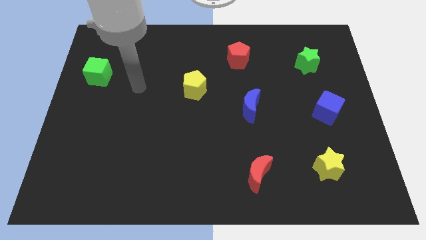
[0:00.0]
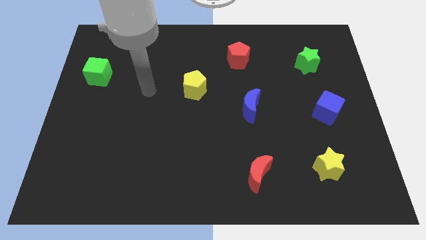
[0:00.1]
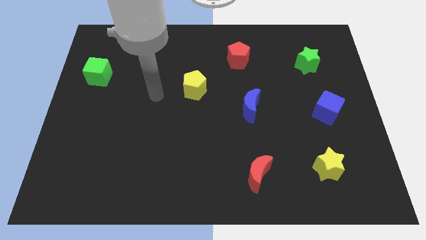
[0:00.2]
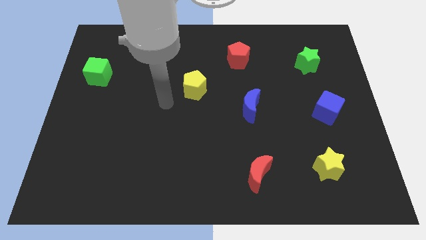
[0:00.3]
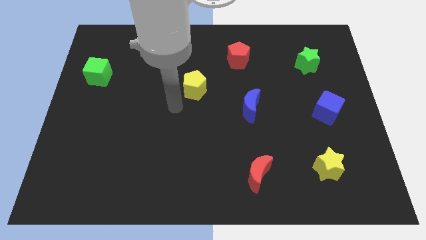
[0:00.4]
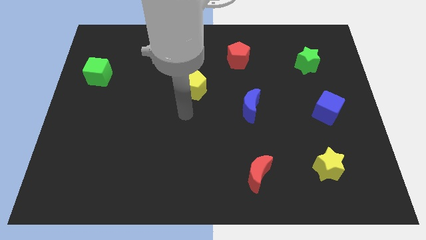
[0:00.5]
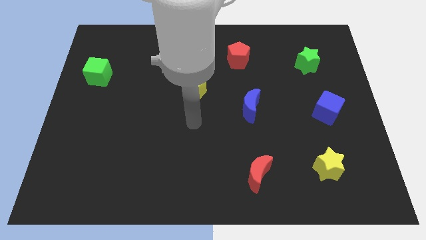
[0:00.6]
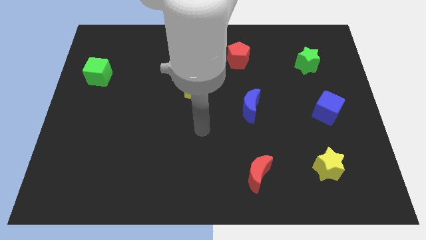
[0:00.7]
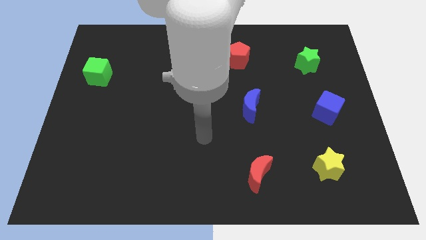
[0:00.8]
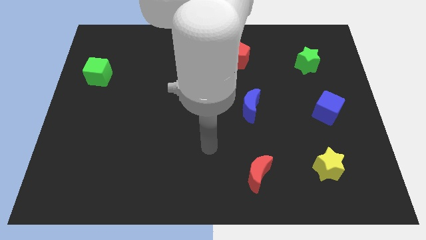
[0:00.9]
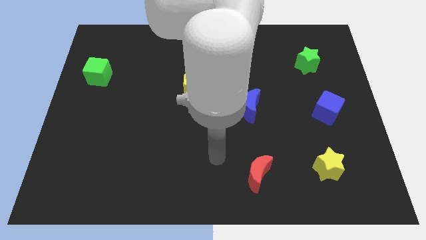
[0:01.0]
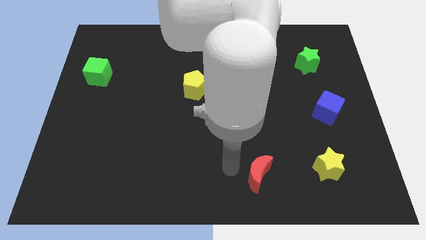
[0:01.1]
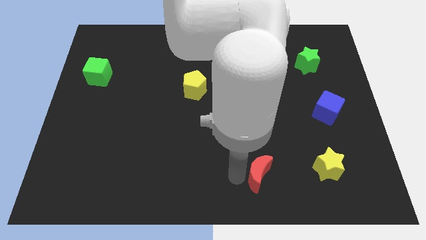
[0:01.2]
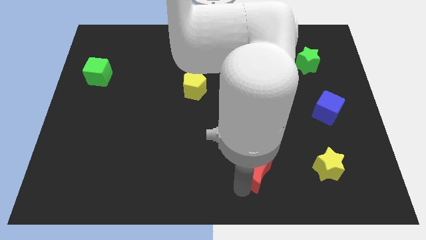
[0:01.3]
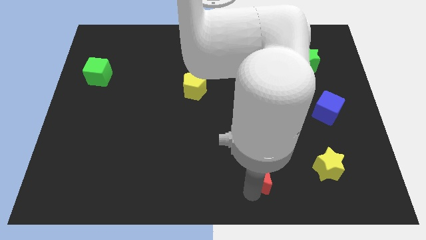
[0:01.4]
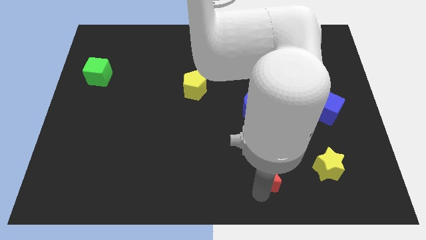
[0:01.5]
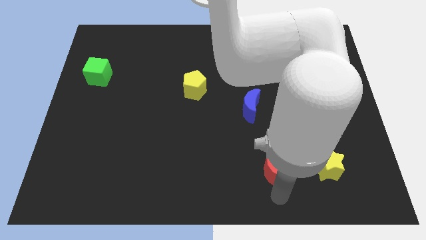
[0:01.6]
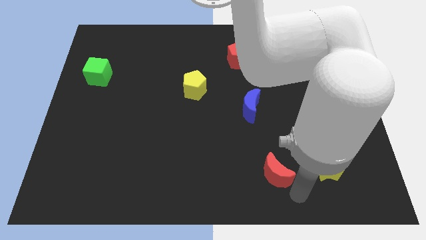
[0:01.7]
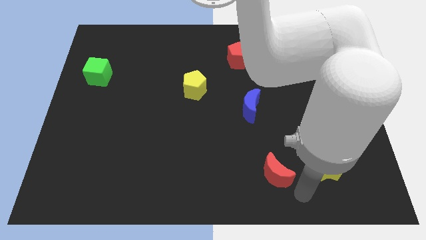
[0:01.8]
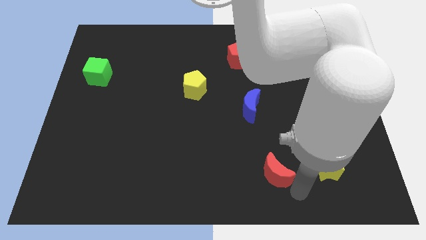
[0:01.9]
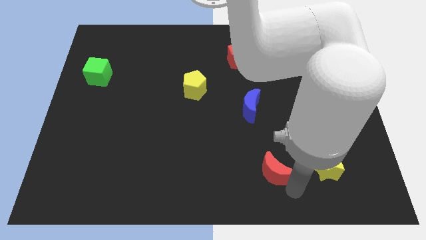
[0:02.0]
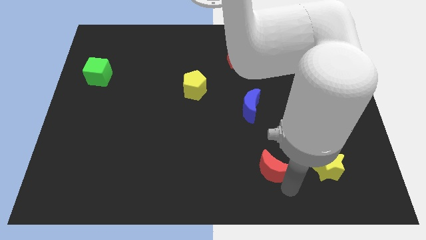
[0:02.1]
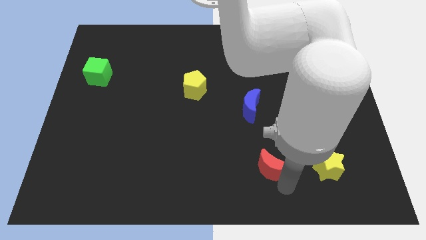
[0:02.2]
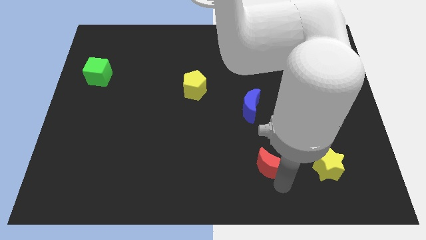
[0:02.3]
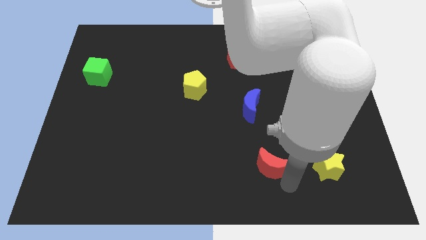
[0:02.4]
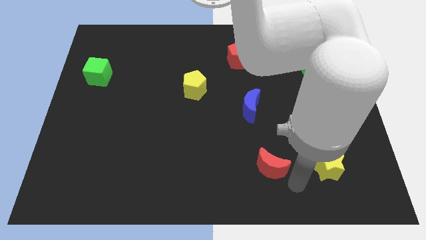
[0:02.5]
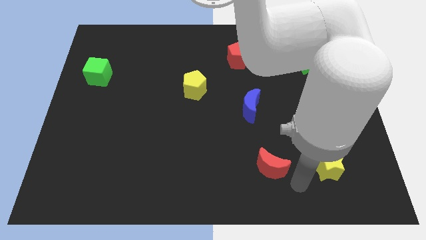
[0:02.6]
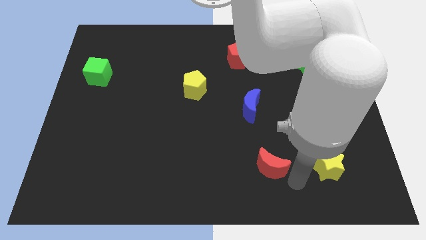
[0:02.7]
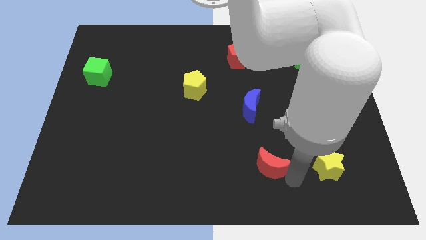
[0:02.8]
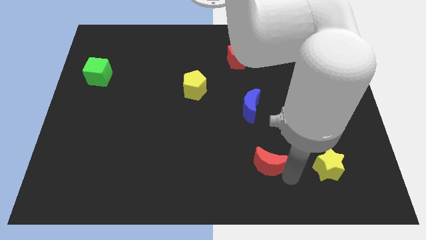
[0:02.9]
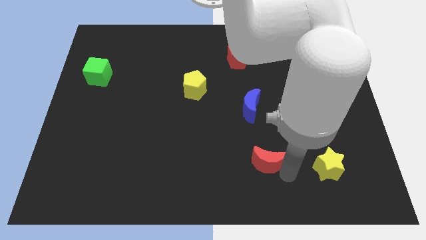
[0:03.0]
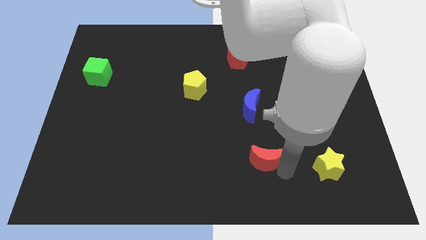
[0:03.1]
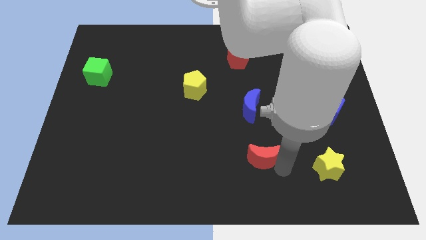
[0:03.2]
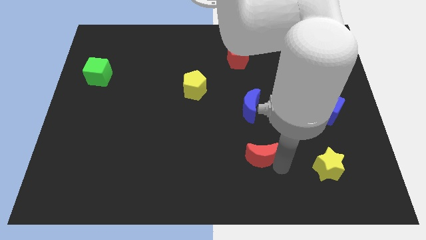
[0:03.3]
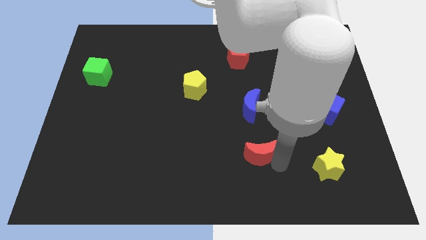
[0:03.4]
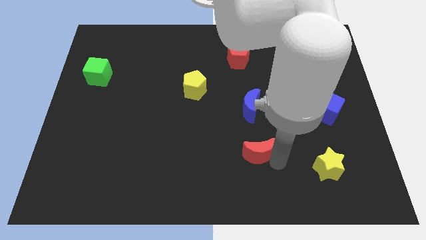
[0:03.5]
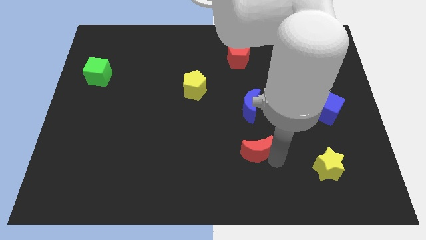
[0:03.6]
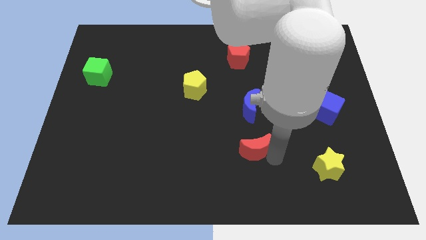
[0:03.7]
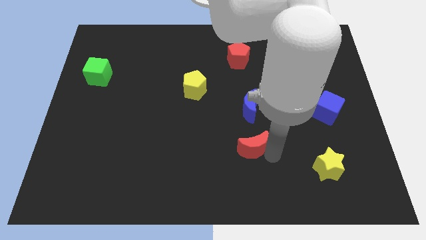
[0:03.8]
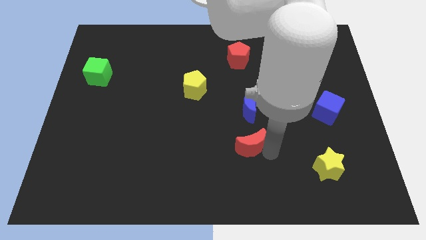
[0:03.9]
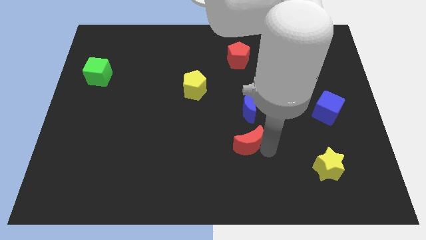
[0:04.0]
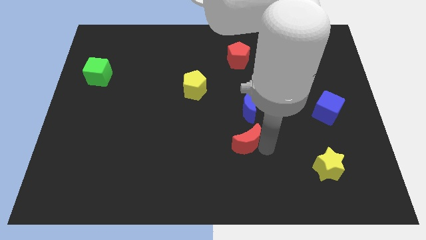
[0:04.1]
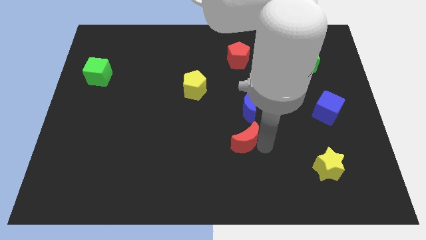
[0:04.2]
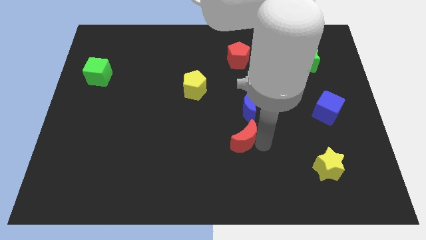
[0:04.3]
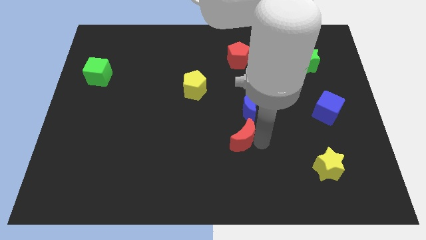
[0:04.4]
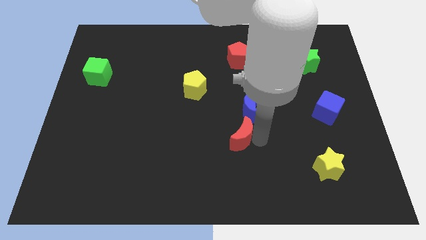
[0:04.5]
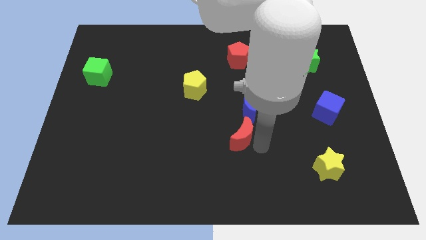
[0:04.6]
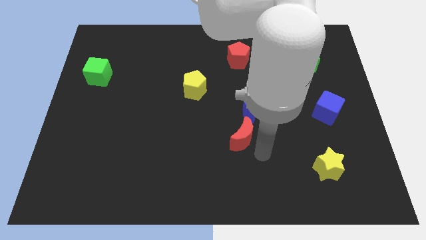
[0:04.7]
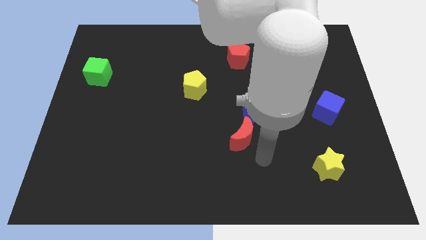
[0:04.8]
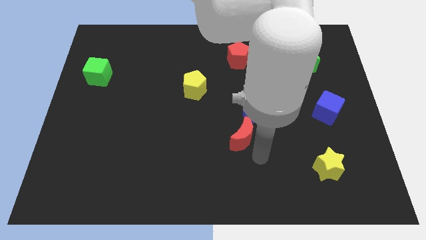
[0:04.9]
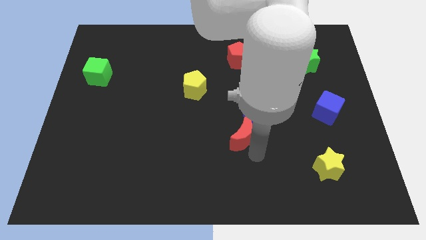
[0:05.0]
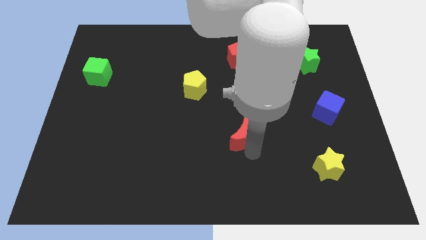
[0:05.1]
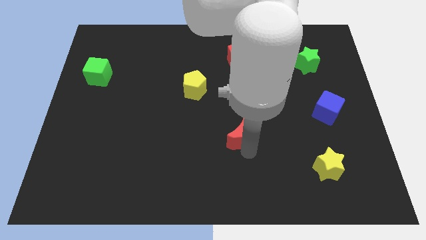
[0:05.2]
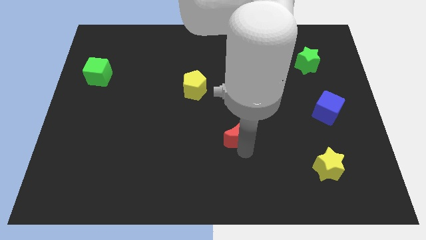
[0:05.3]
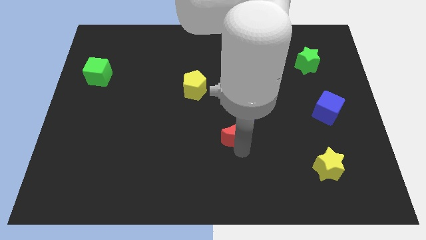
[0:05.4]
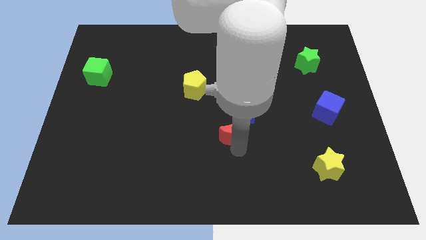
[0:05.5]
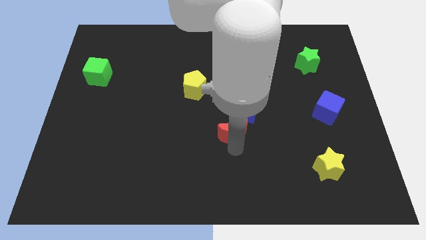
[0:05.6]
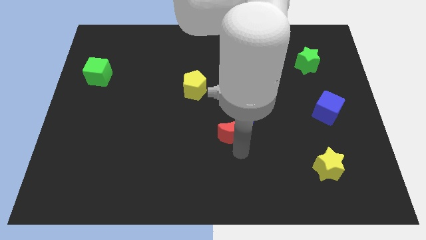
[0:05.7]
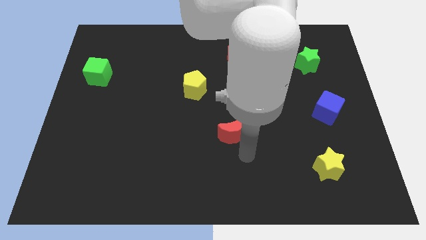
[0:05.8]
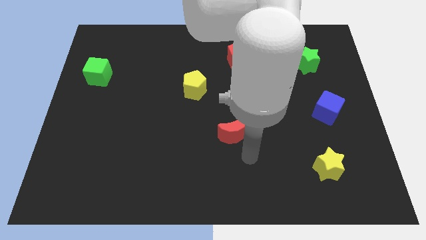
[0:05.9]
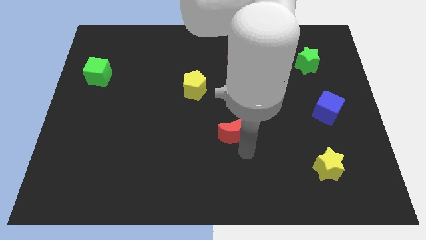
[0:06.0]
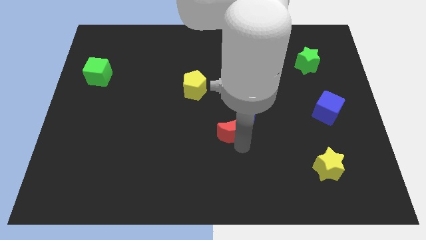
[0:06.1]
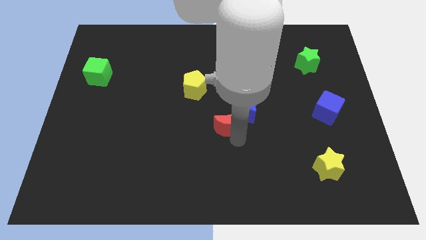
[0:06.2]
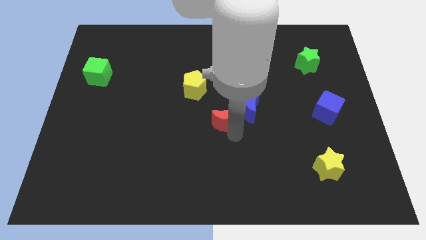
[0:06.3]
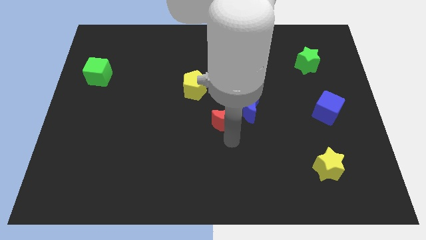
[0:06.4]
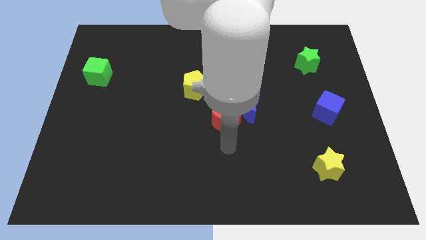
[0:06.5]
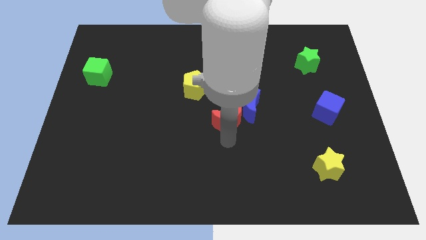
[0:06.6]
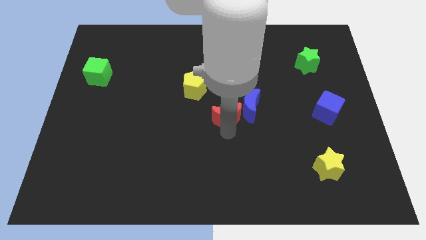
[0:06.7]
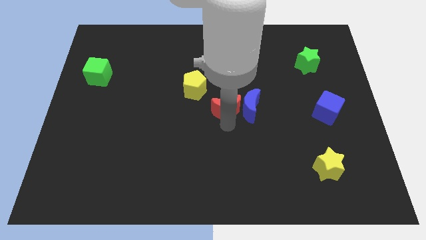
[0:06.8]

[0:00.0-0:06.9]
push the red moon diagonally up and to the left of the blue moon
